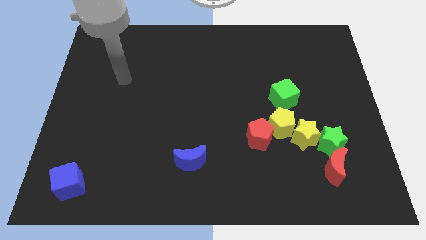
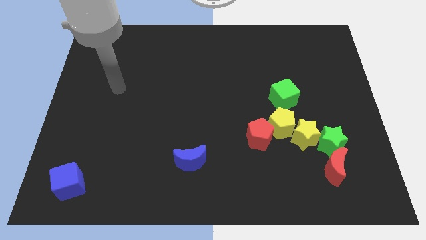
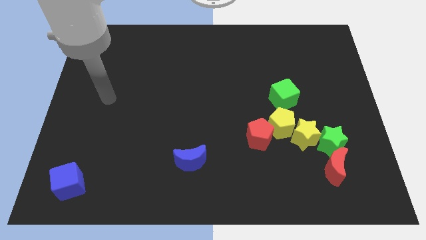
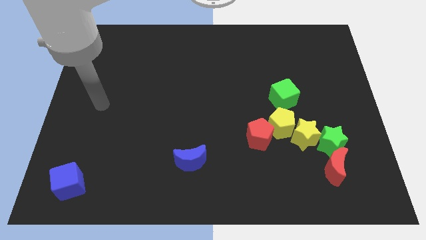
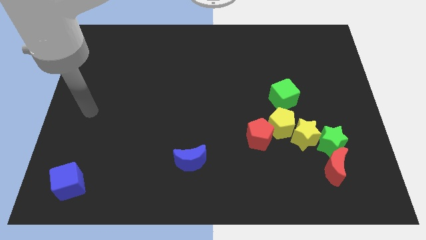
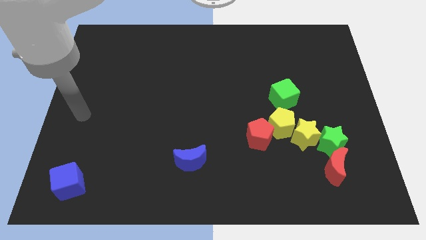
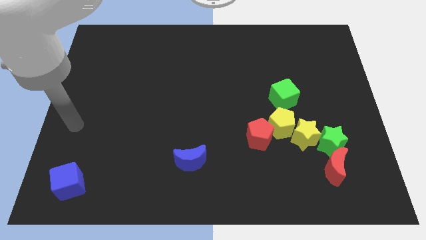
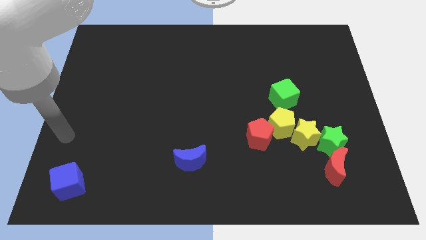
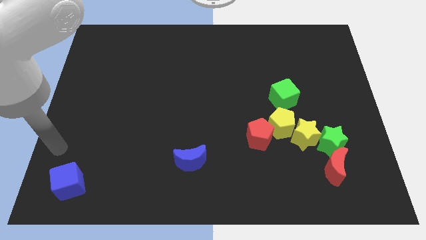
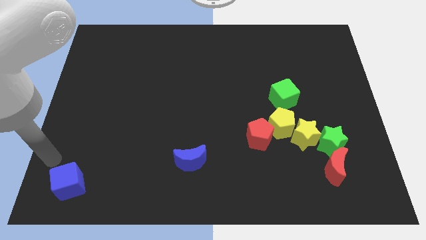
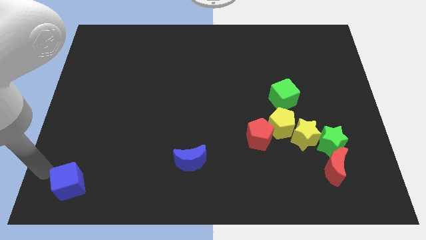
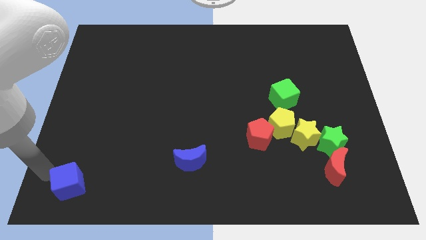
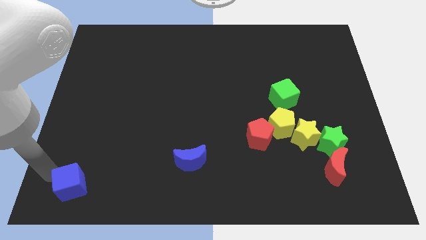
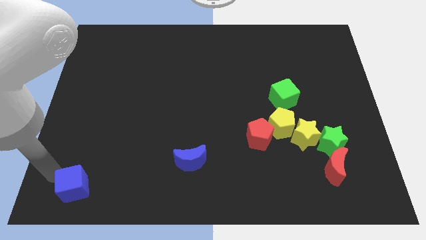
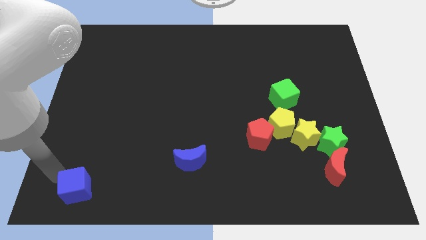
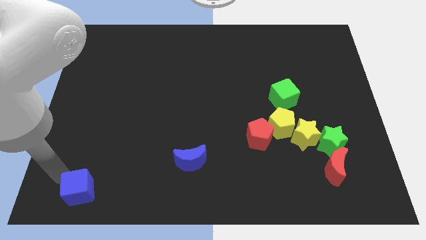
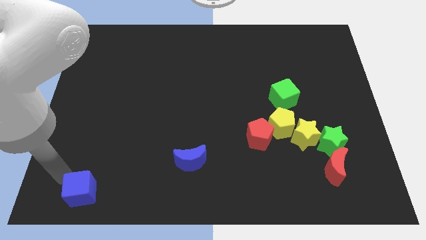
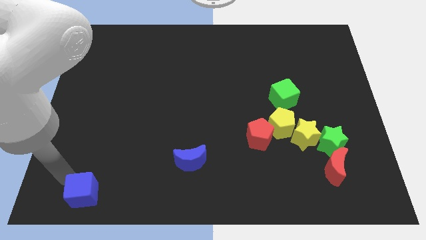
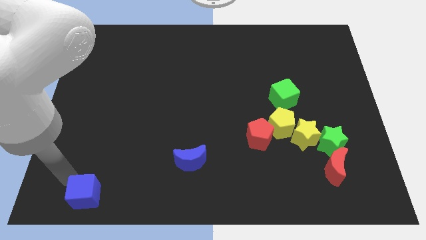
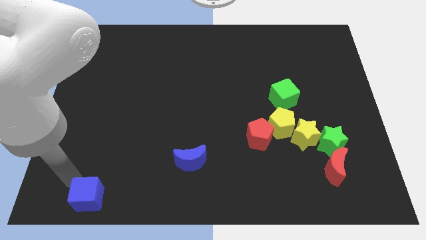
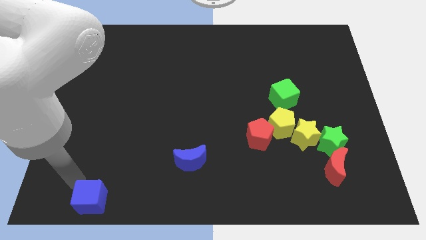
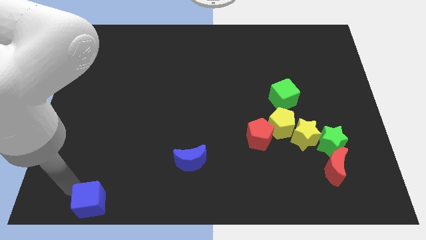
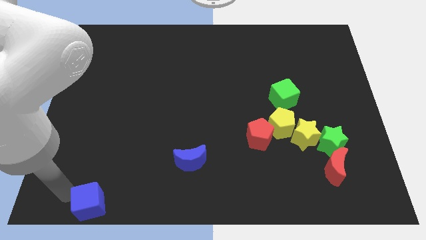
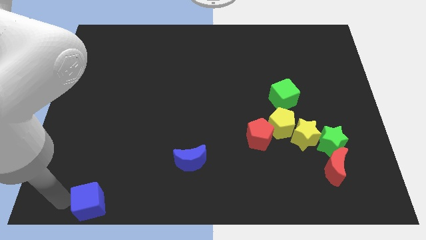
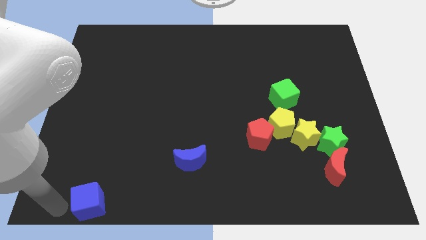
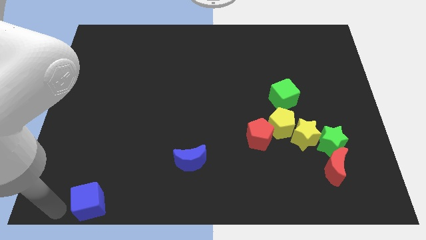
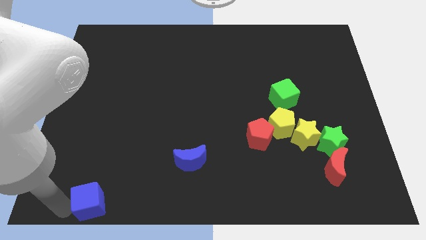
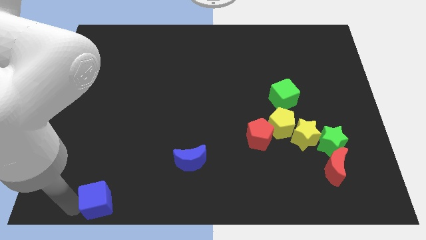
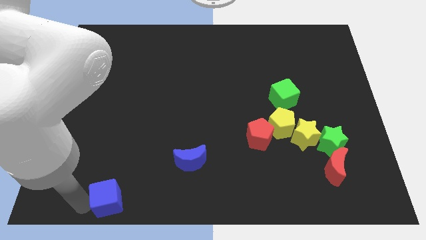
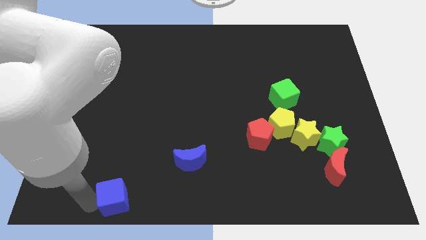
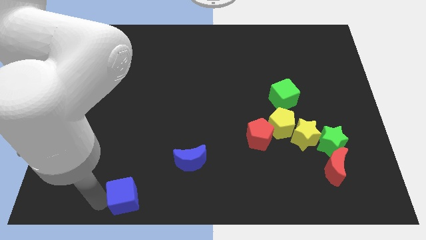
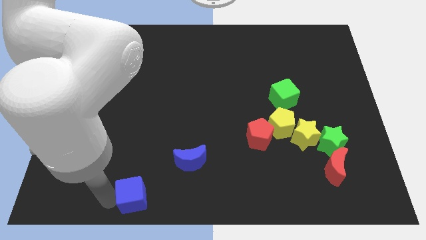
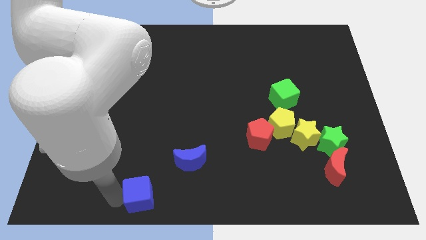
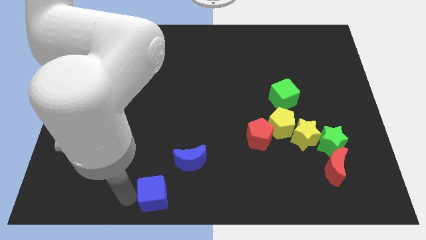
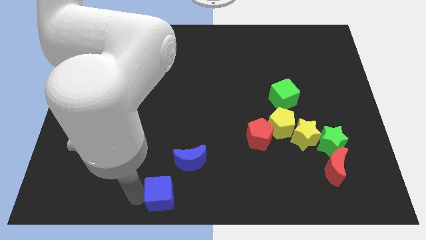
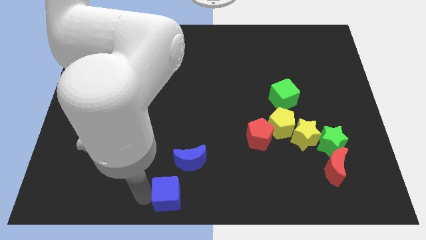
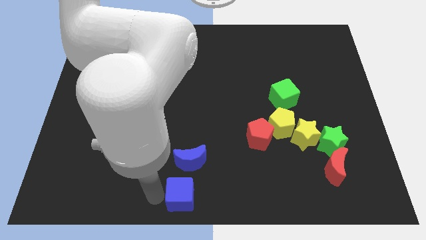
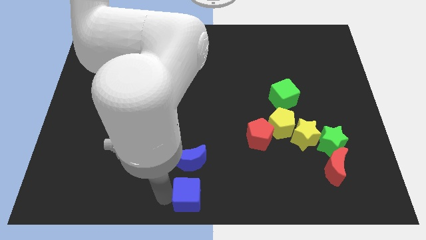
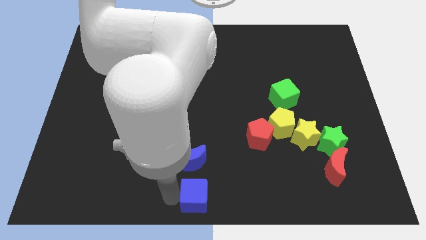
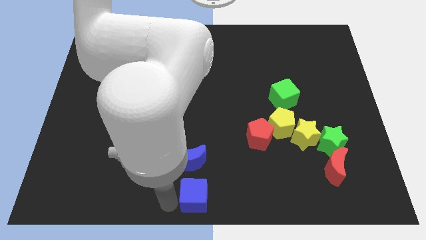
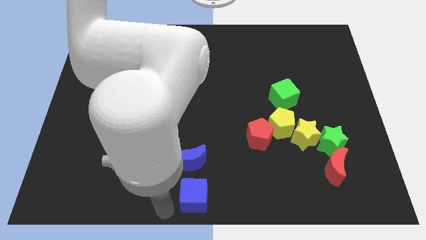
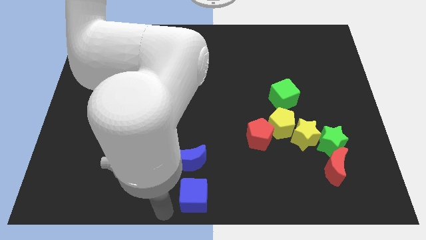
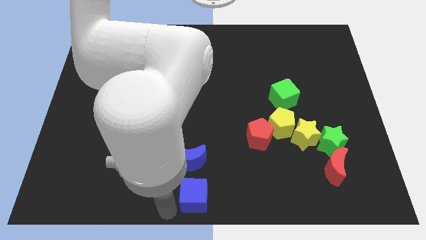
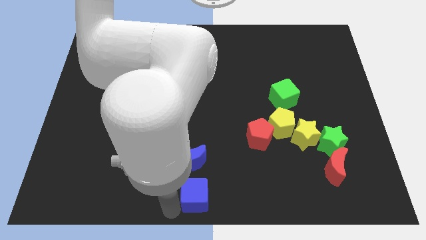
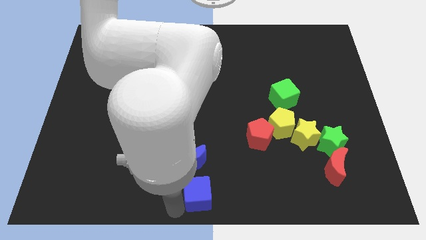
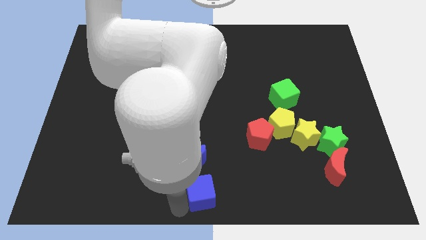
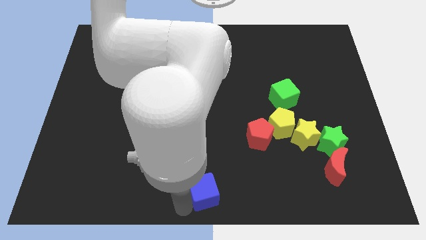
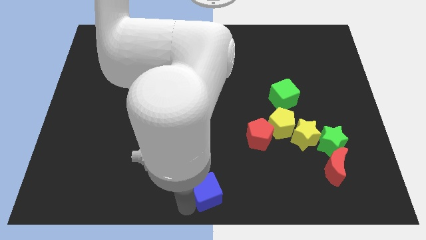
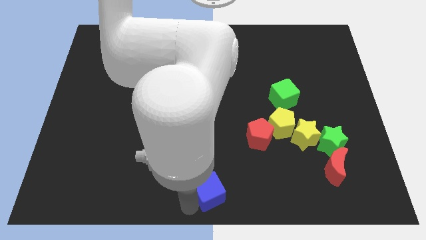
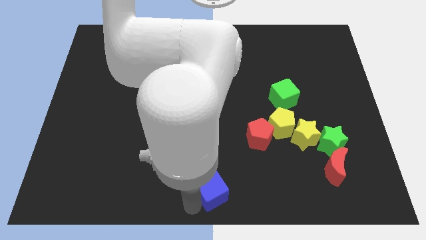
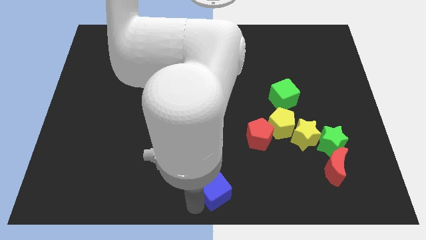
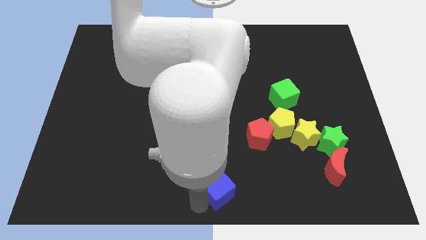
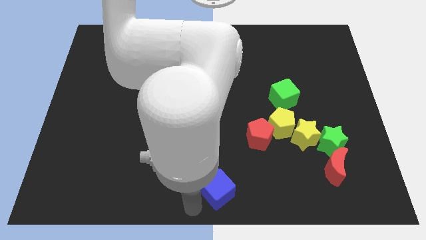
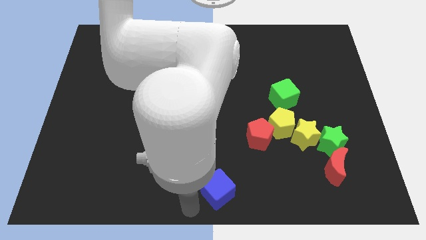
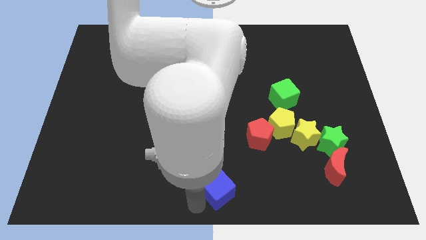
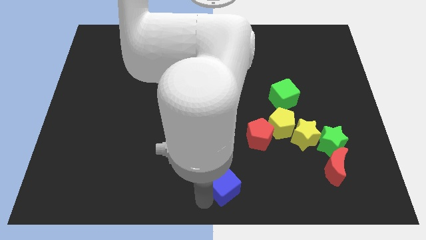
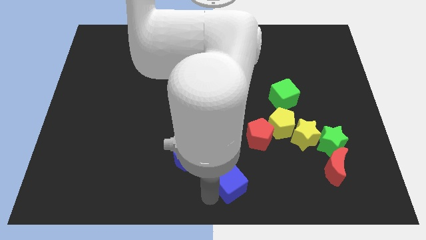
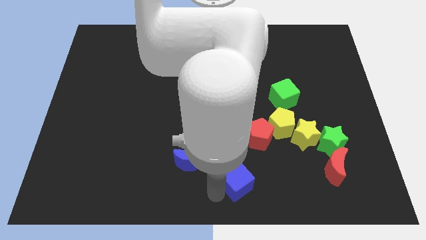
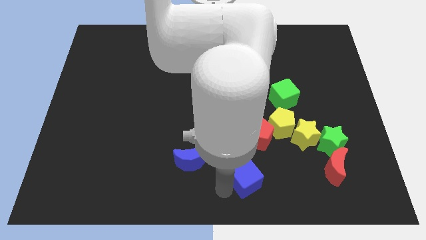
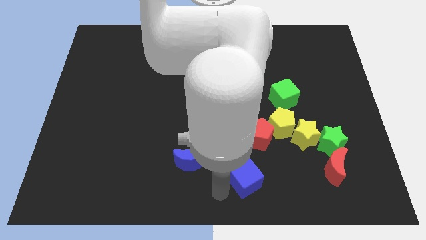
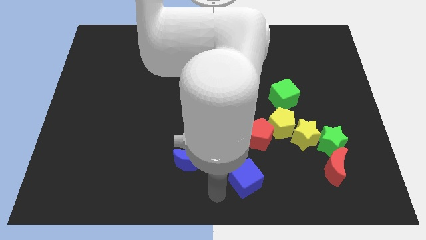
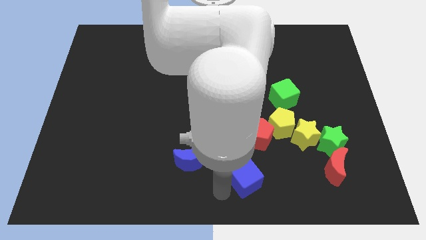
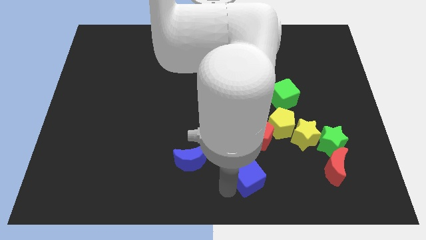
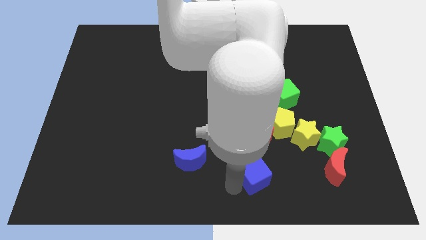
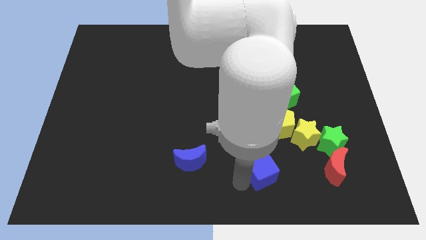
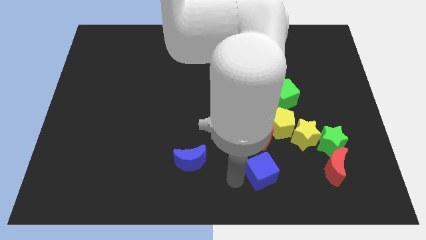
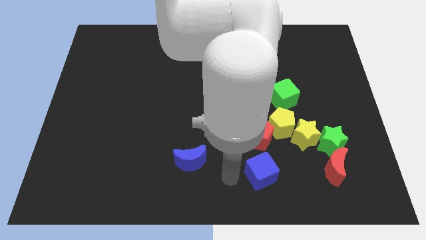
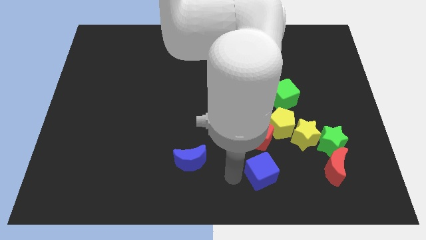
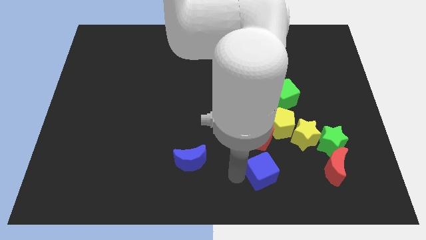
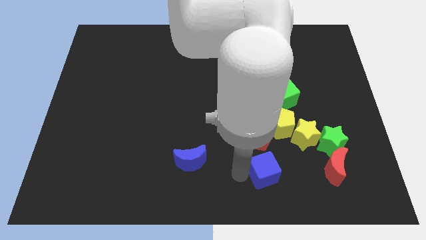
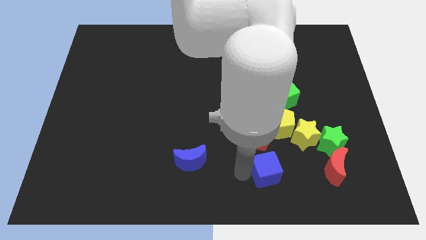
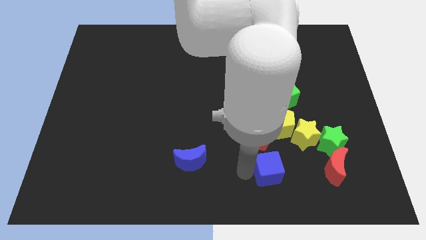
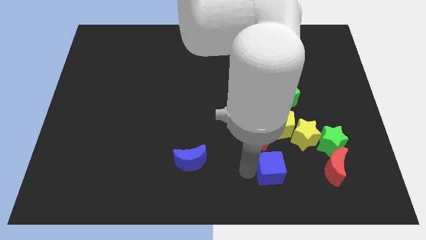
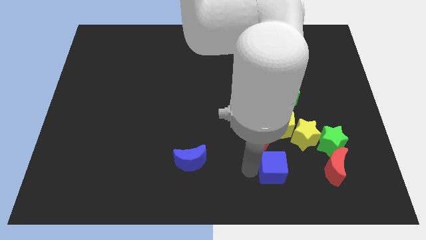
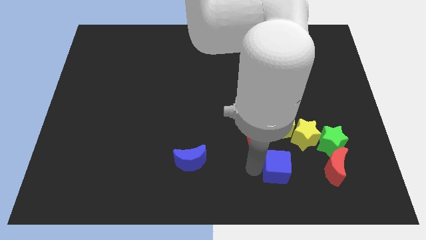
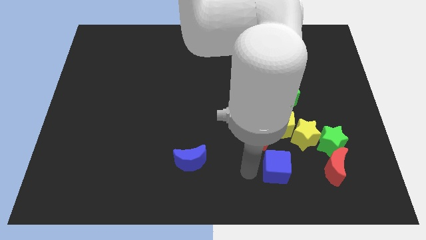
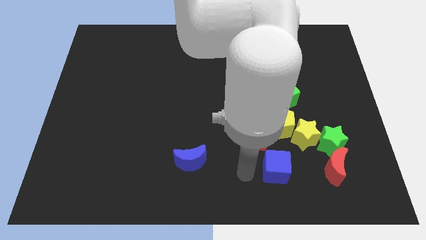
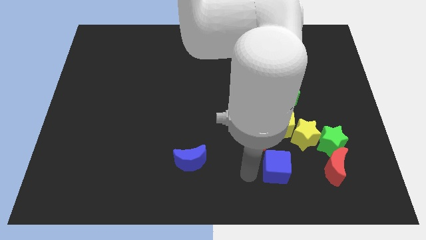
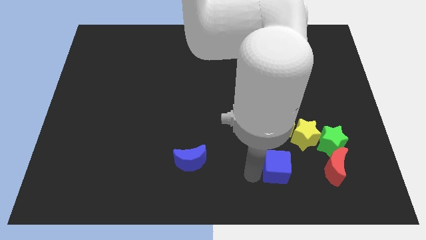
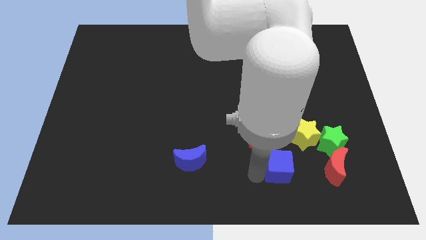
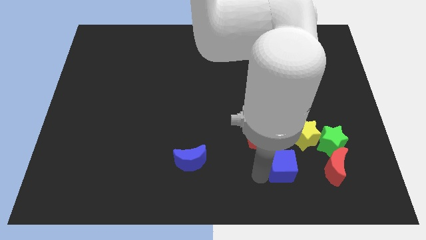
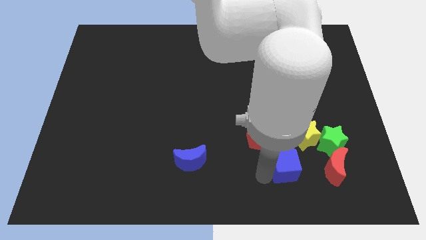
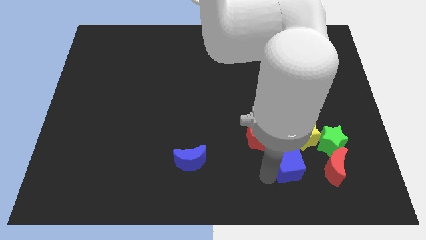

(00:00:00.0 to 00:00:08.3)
slide the blue cube to the bottom left side of the green star
